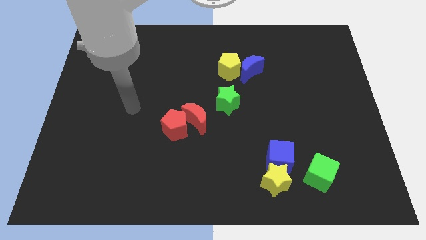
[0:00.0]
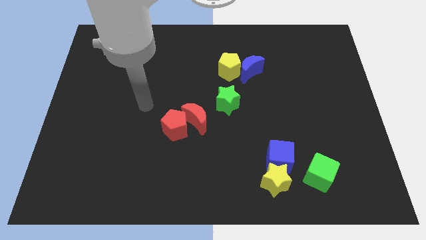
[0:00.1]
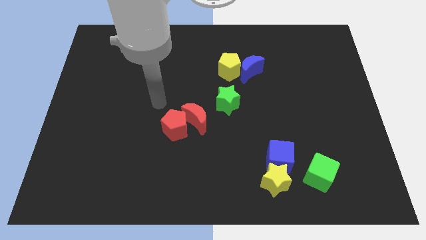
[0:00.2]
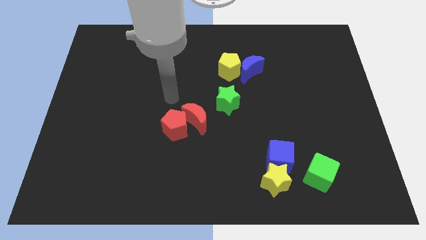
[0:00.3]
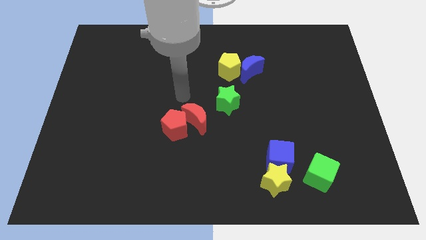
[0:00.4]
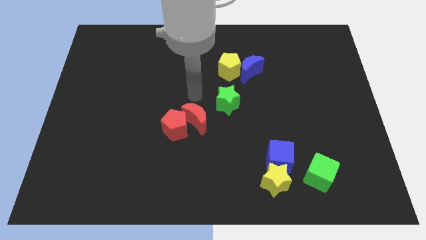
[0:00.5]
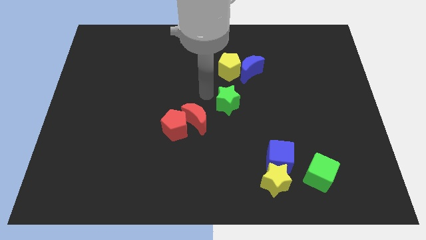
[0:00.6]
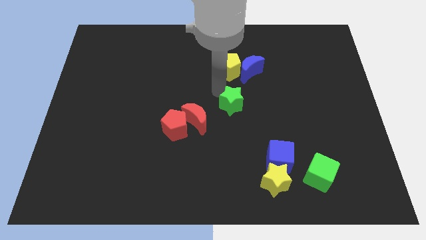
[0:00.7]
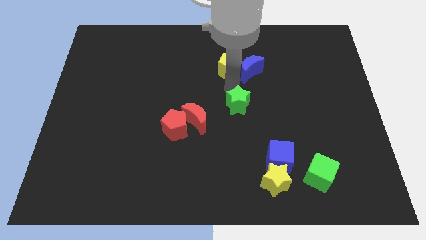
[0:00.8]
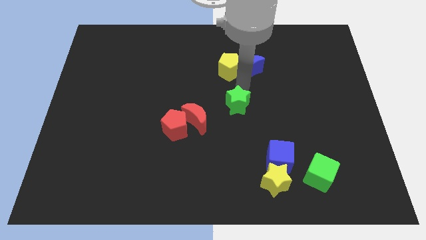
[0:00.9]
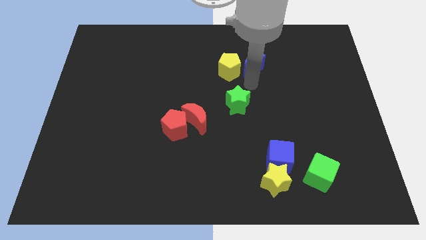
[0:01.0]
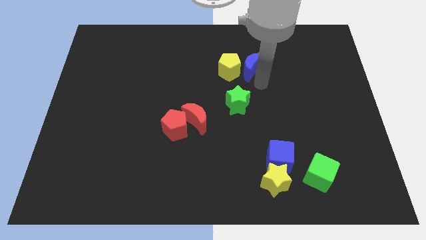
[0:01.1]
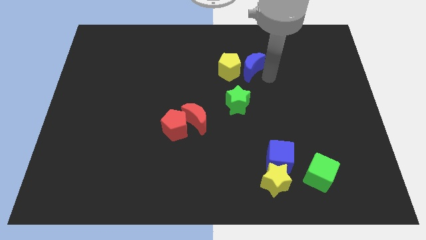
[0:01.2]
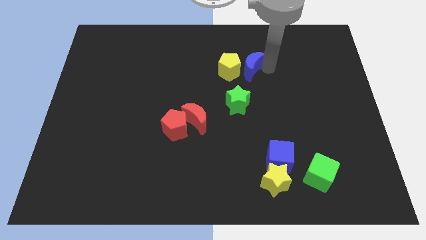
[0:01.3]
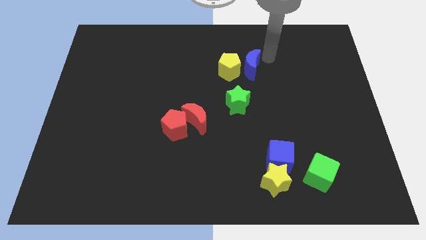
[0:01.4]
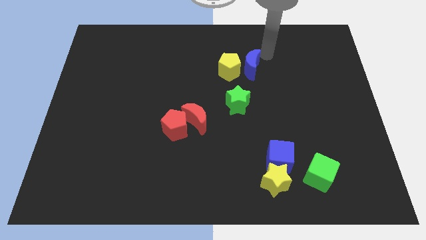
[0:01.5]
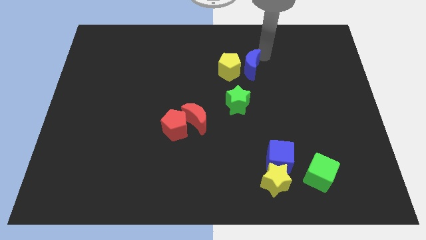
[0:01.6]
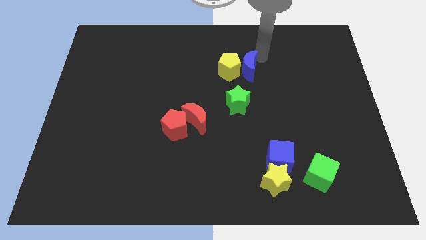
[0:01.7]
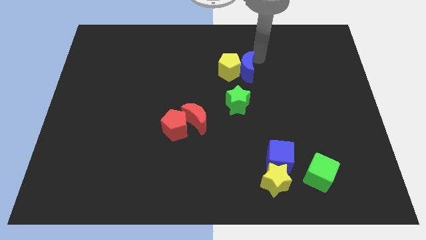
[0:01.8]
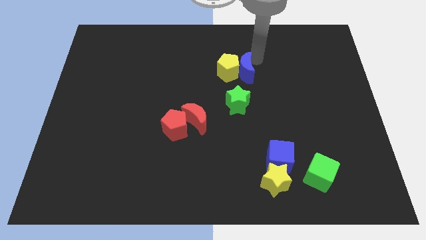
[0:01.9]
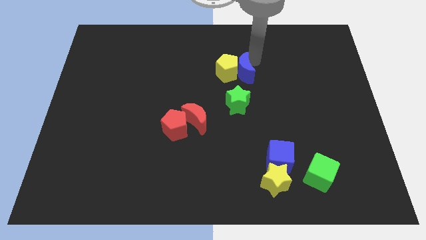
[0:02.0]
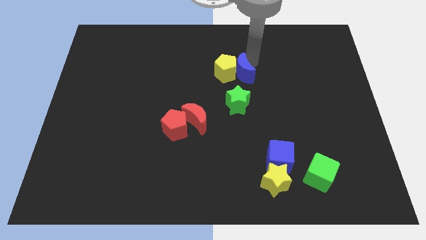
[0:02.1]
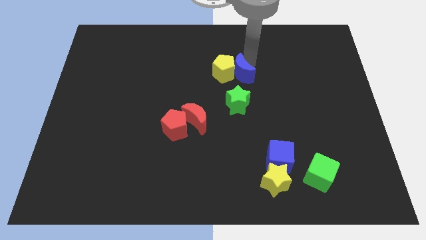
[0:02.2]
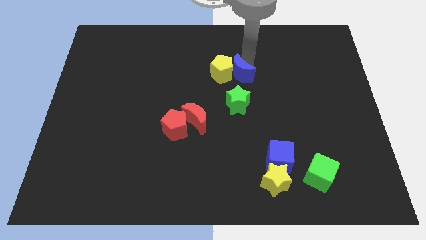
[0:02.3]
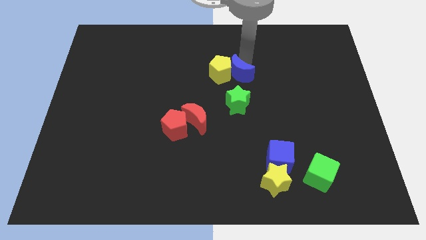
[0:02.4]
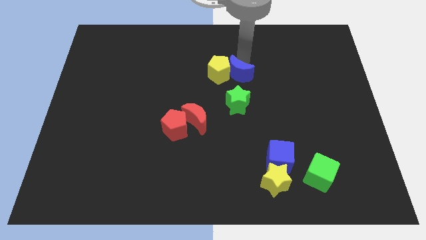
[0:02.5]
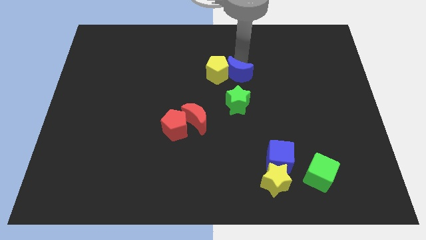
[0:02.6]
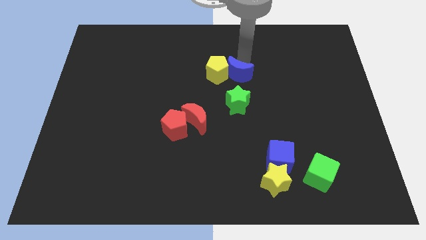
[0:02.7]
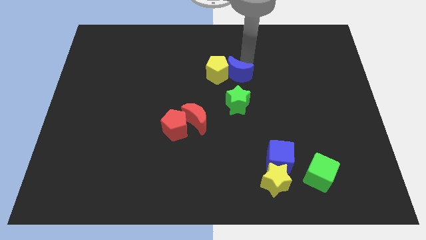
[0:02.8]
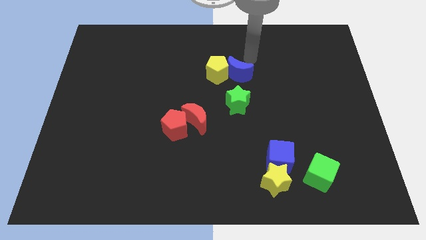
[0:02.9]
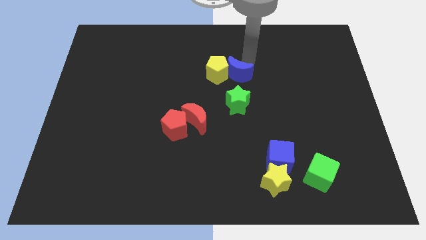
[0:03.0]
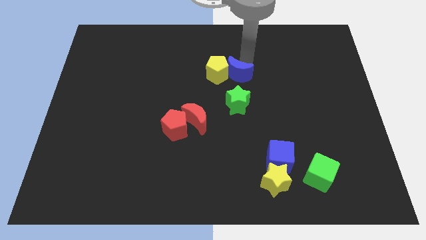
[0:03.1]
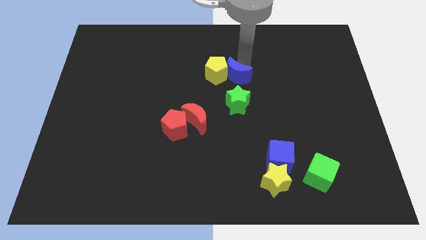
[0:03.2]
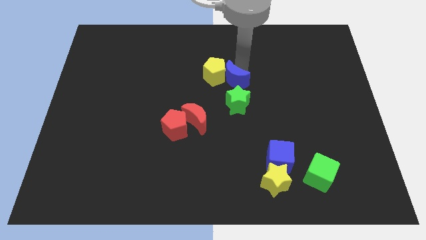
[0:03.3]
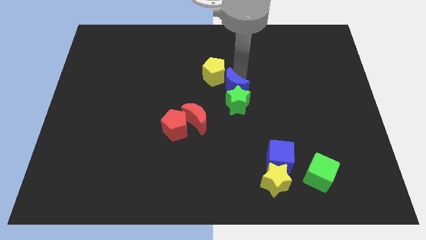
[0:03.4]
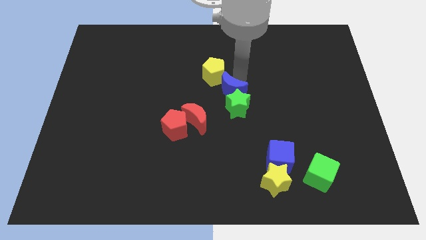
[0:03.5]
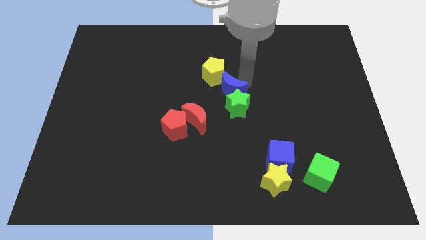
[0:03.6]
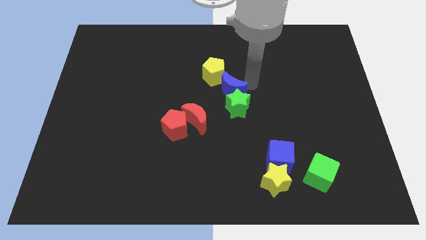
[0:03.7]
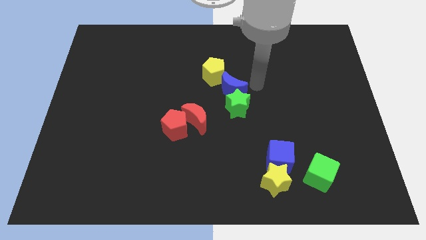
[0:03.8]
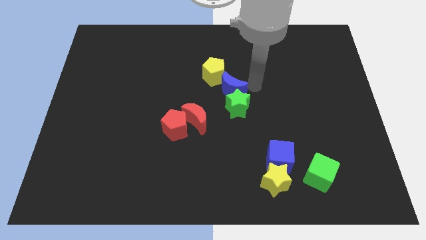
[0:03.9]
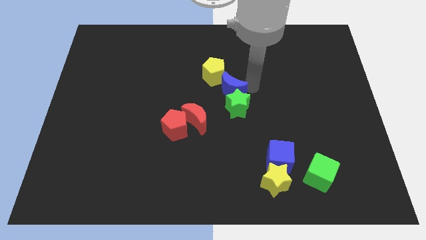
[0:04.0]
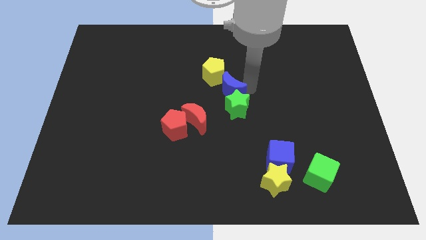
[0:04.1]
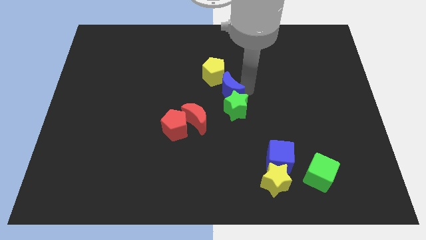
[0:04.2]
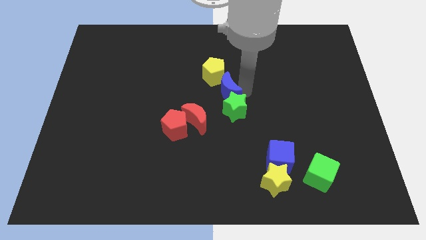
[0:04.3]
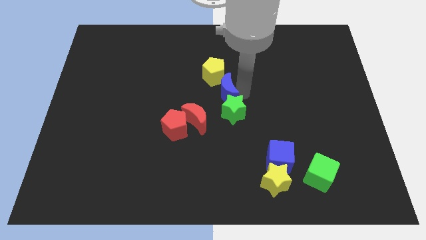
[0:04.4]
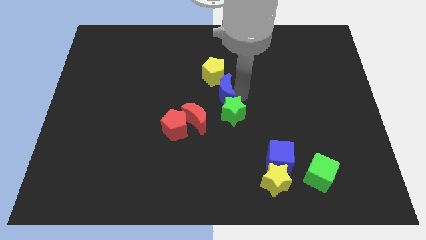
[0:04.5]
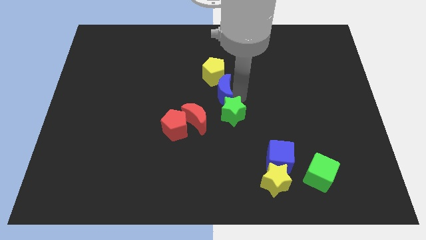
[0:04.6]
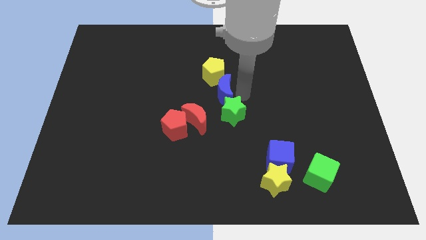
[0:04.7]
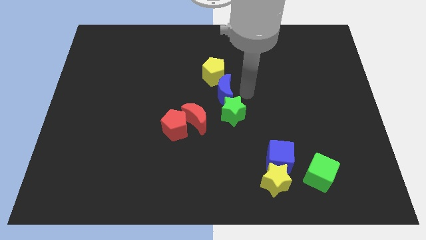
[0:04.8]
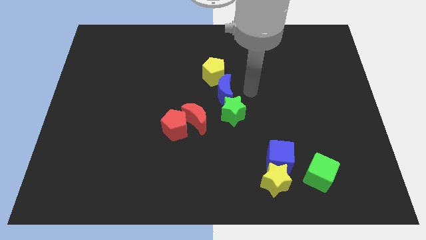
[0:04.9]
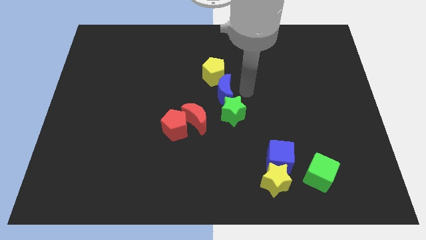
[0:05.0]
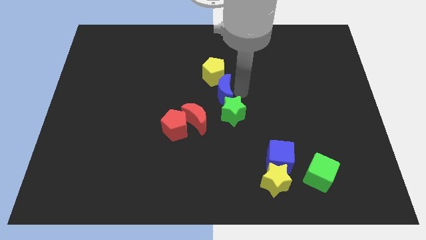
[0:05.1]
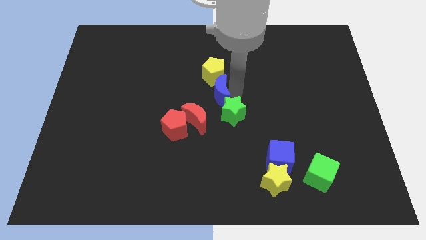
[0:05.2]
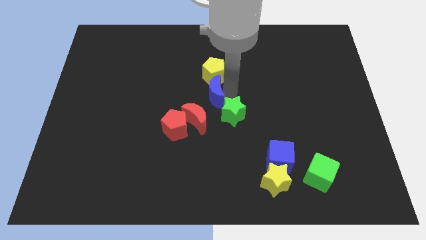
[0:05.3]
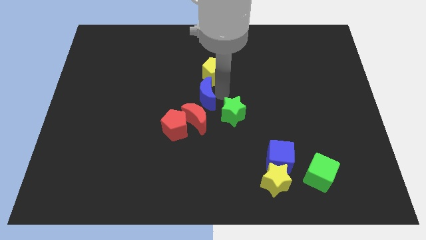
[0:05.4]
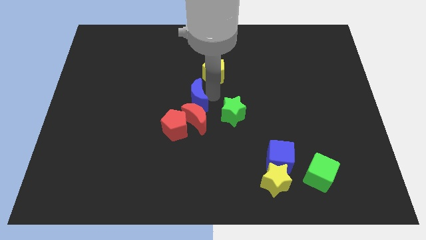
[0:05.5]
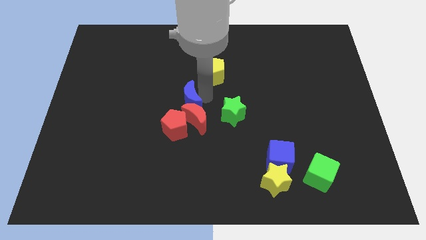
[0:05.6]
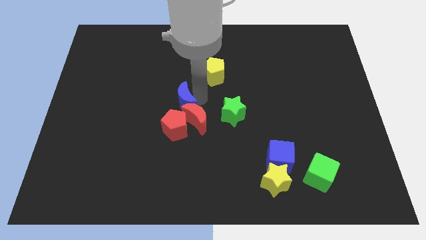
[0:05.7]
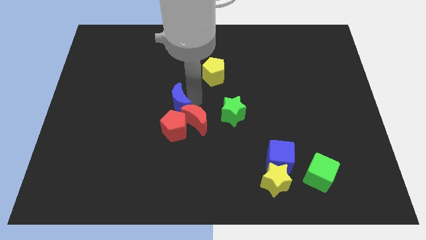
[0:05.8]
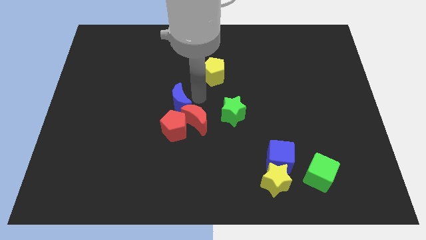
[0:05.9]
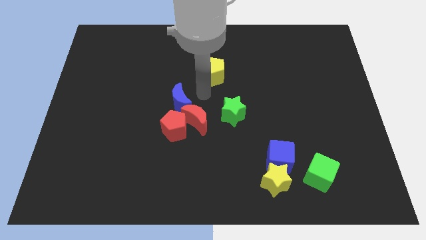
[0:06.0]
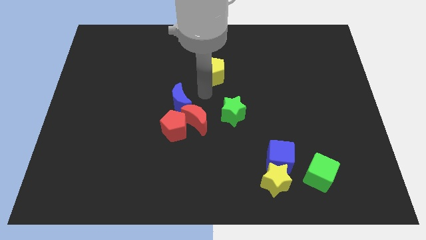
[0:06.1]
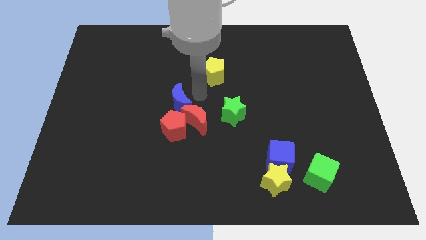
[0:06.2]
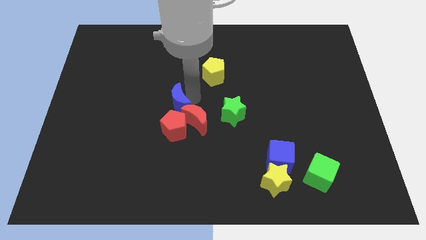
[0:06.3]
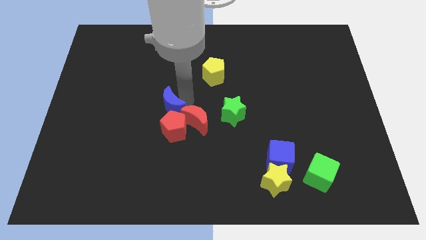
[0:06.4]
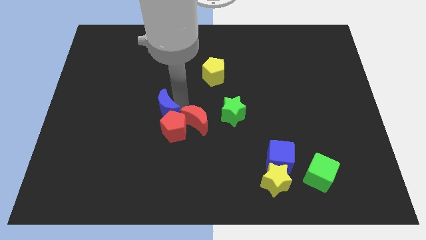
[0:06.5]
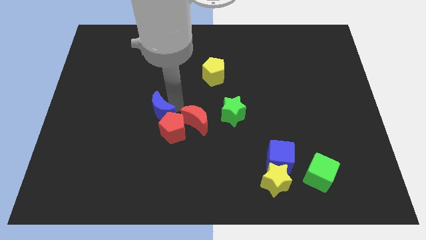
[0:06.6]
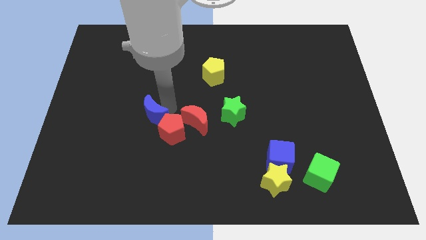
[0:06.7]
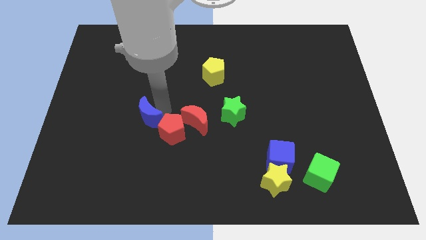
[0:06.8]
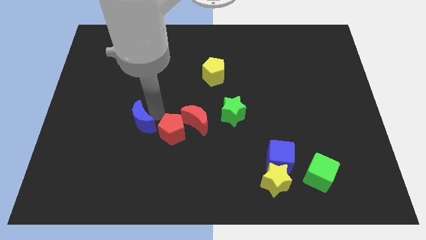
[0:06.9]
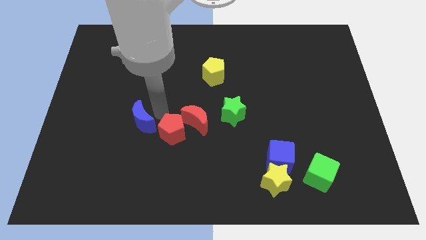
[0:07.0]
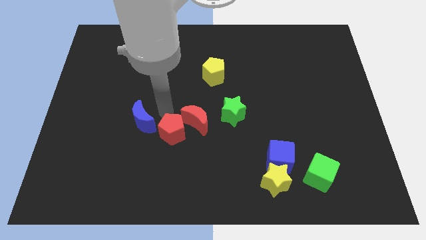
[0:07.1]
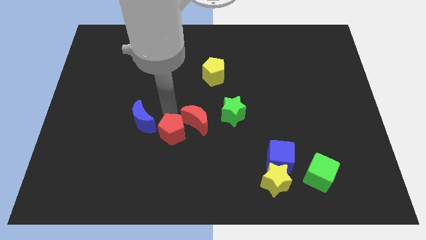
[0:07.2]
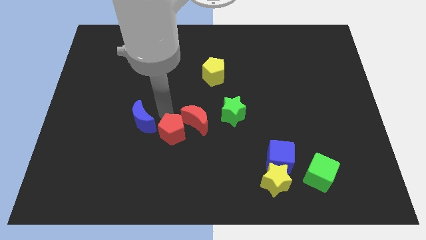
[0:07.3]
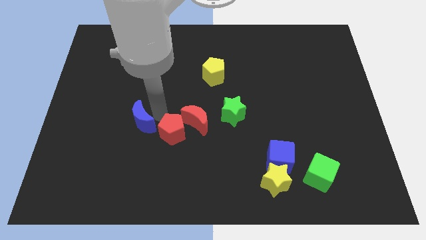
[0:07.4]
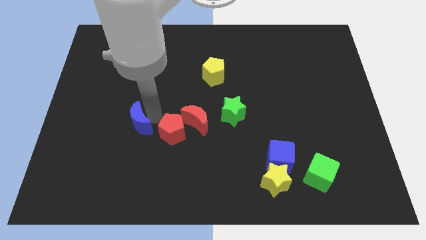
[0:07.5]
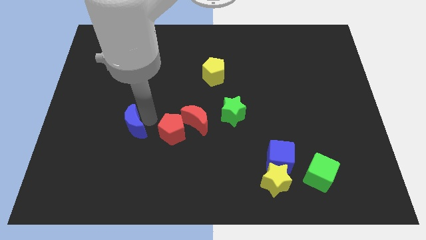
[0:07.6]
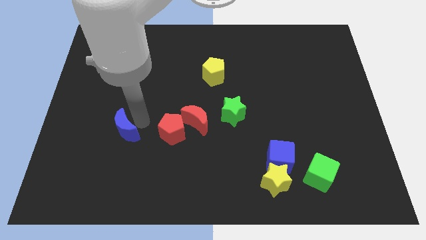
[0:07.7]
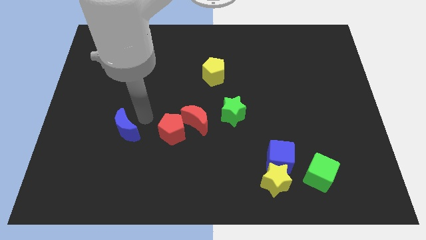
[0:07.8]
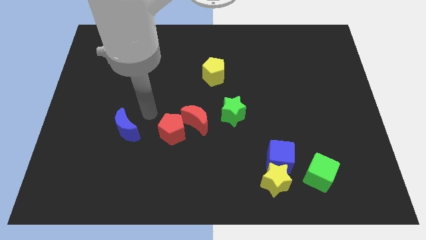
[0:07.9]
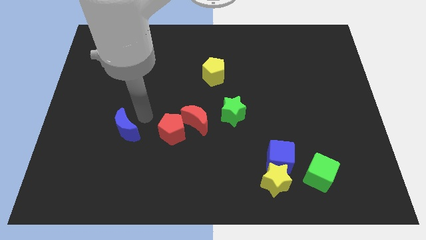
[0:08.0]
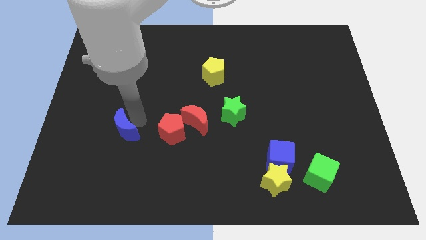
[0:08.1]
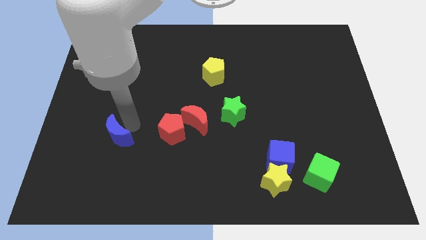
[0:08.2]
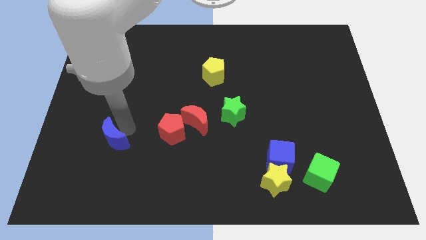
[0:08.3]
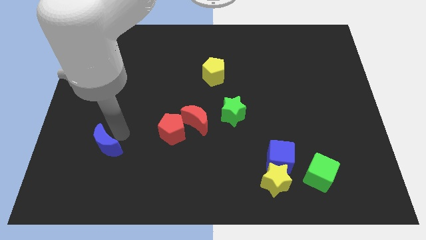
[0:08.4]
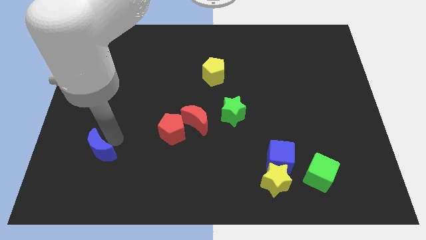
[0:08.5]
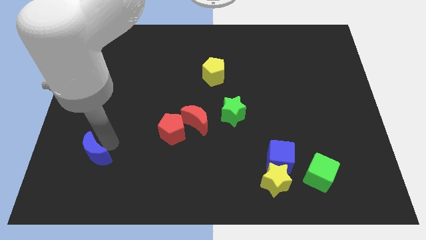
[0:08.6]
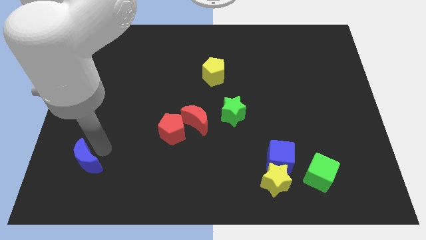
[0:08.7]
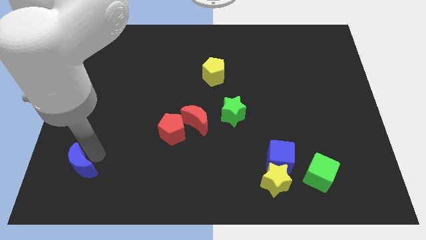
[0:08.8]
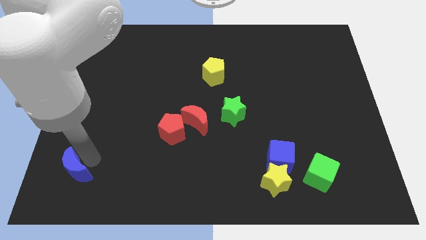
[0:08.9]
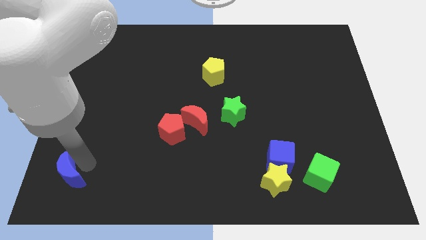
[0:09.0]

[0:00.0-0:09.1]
put the blue moon to the bottom left
